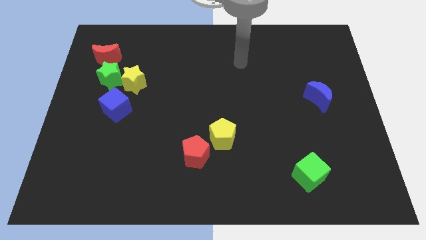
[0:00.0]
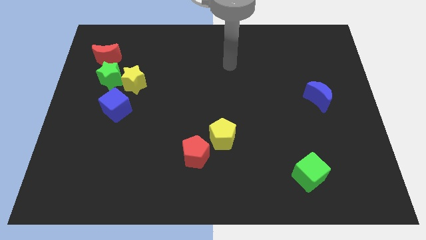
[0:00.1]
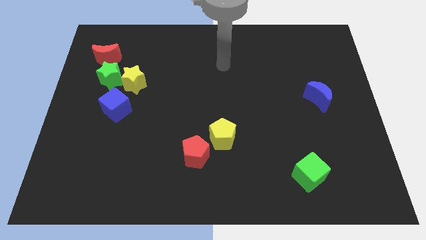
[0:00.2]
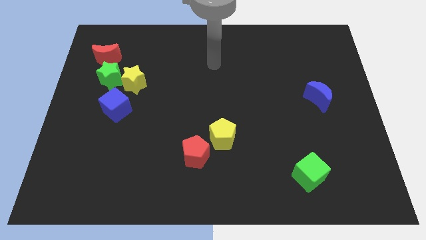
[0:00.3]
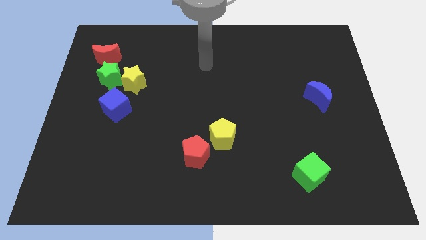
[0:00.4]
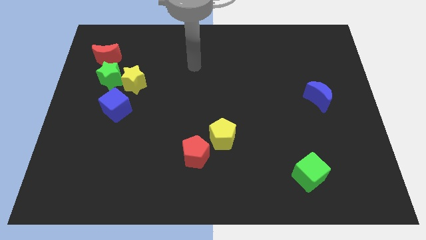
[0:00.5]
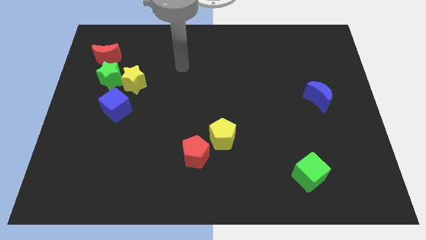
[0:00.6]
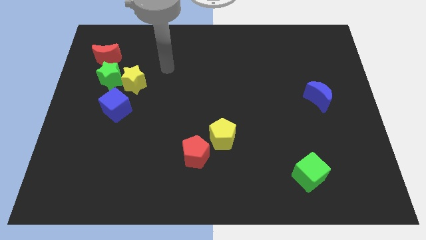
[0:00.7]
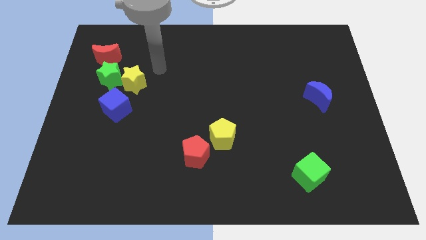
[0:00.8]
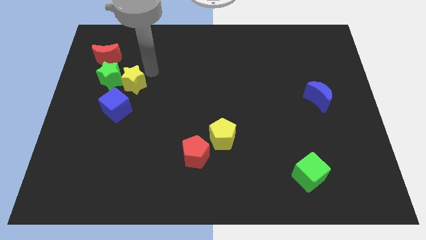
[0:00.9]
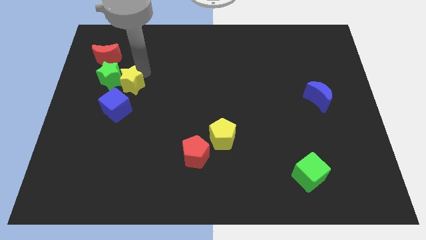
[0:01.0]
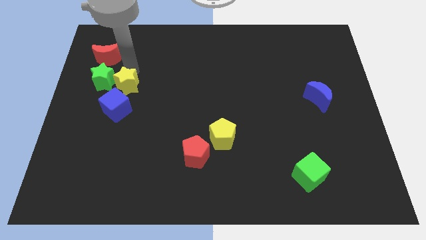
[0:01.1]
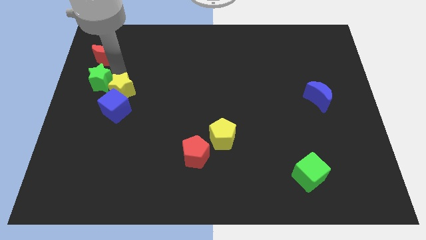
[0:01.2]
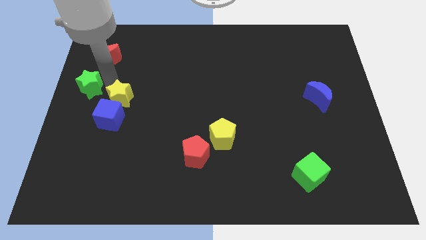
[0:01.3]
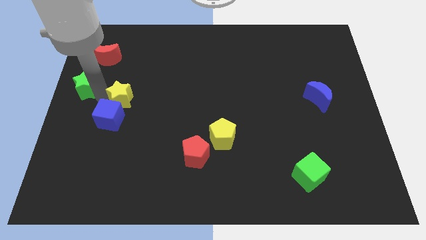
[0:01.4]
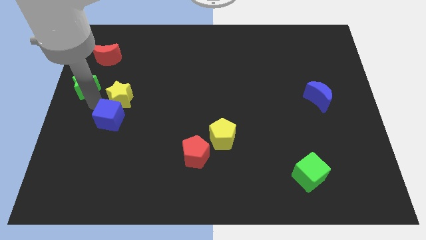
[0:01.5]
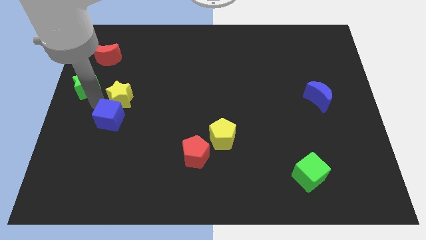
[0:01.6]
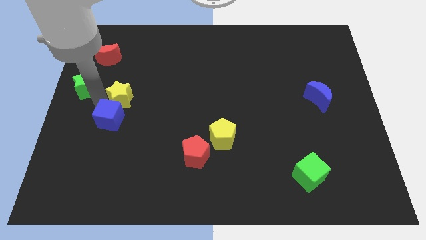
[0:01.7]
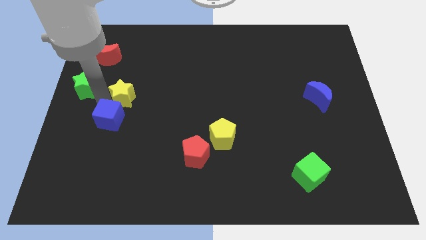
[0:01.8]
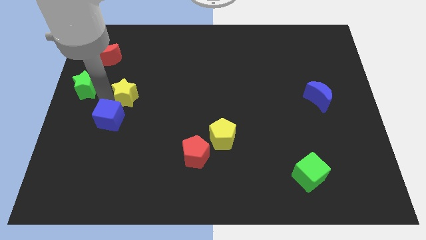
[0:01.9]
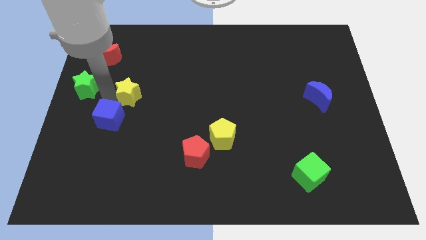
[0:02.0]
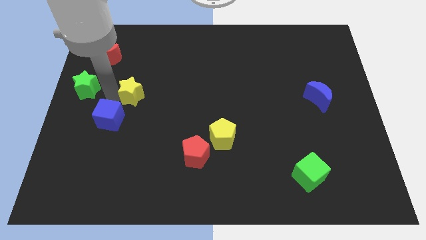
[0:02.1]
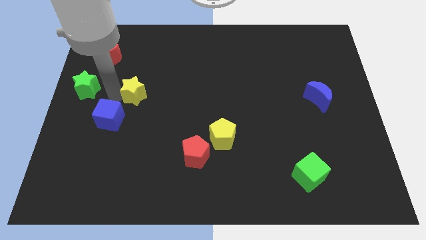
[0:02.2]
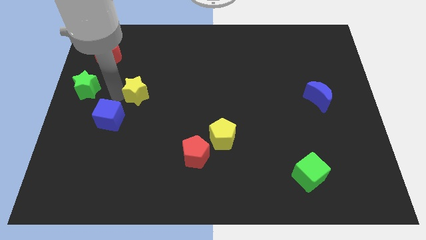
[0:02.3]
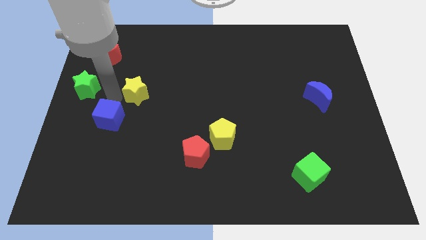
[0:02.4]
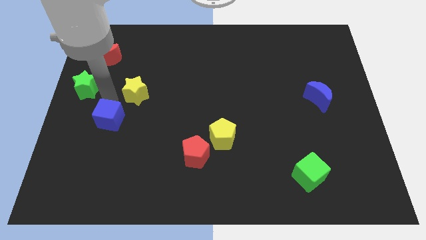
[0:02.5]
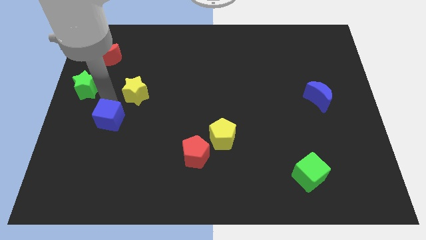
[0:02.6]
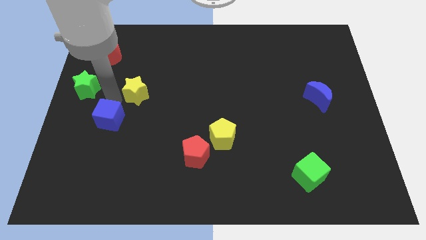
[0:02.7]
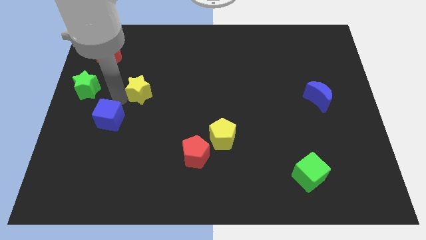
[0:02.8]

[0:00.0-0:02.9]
move the yellow star away from the green star and blue cube

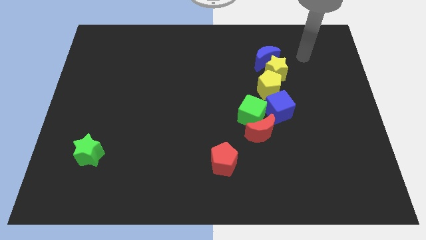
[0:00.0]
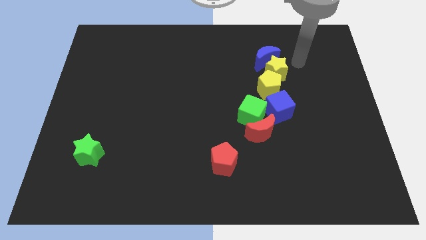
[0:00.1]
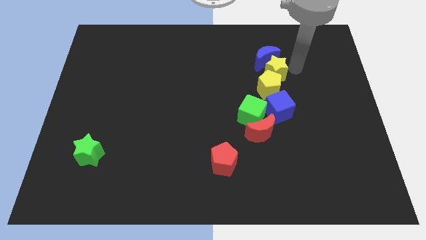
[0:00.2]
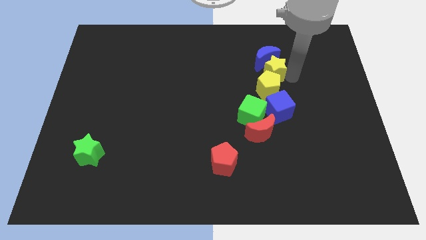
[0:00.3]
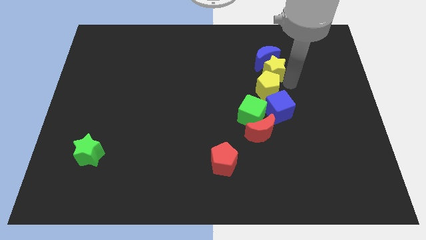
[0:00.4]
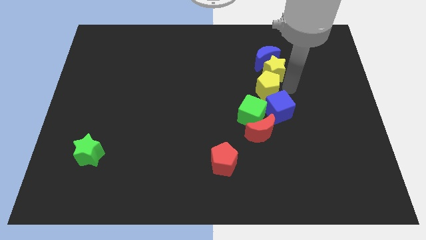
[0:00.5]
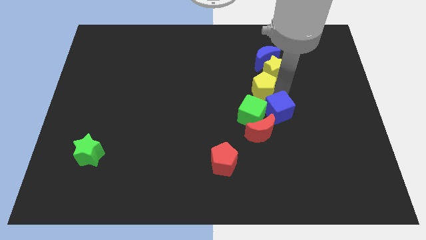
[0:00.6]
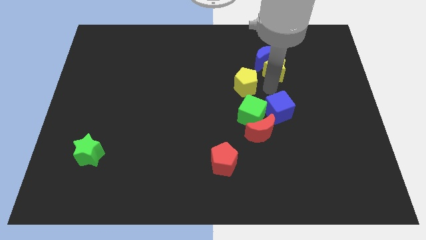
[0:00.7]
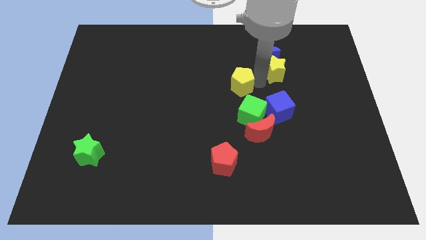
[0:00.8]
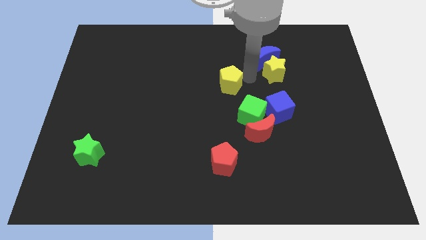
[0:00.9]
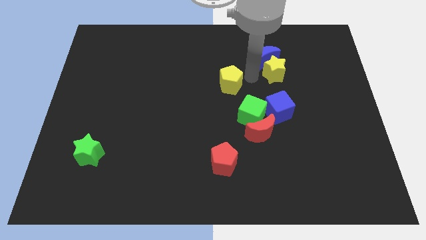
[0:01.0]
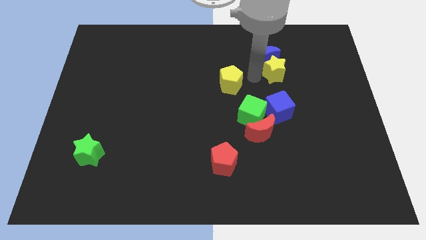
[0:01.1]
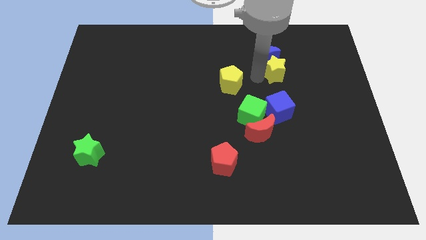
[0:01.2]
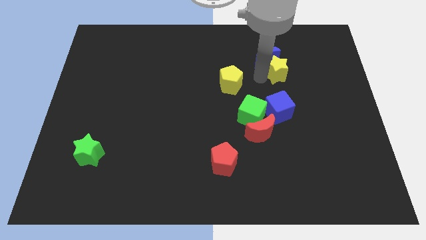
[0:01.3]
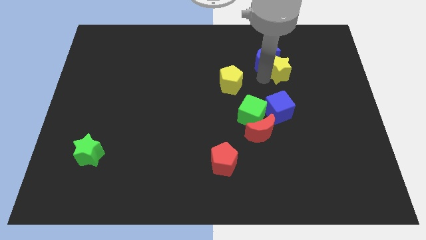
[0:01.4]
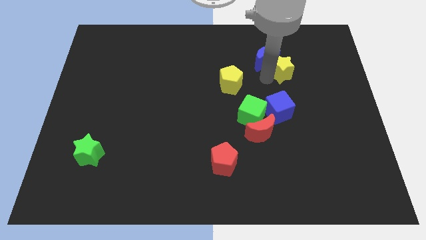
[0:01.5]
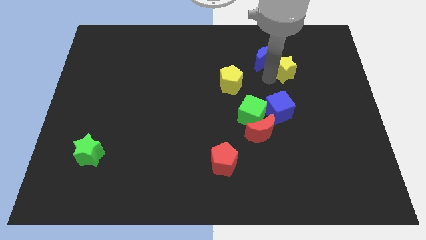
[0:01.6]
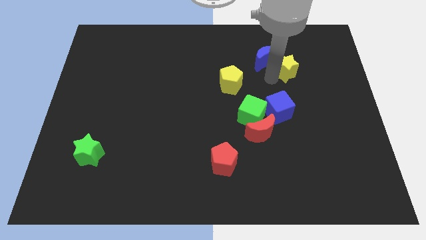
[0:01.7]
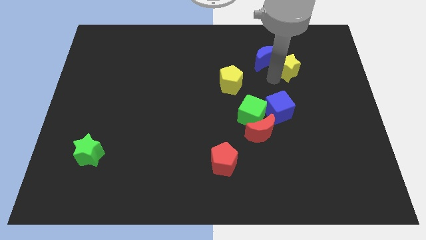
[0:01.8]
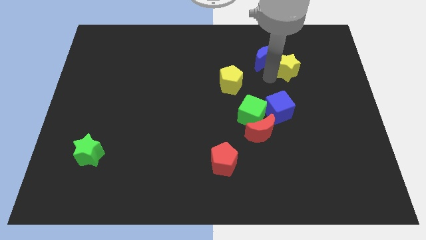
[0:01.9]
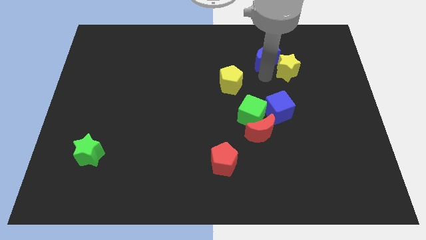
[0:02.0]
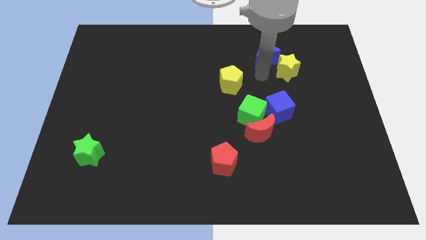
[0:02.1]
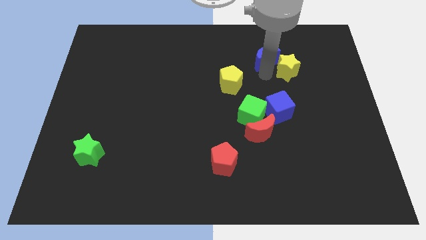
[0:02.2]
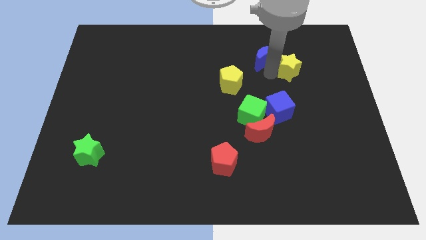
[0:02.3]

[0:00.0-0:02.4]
move the yellow star away from the blue moon and yellow pentagon

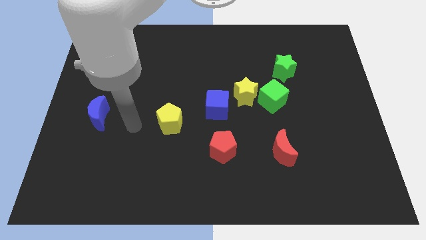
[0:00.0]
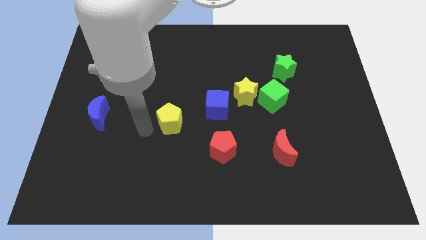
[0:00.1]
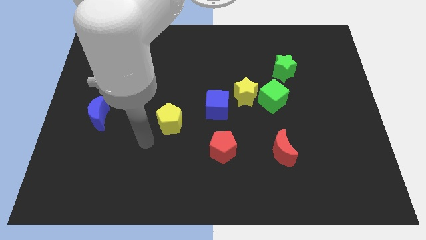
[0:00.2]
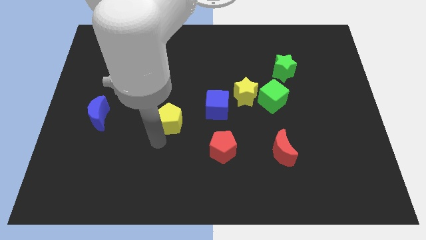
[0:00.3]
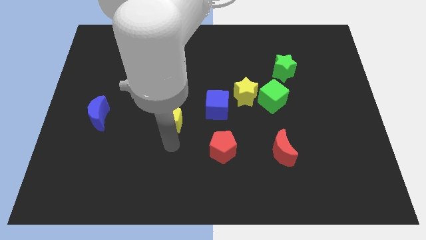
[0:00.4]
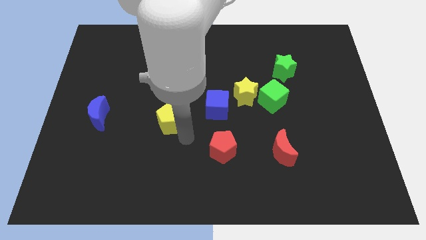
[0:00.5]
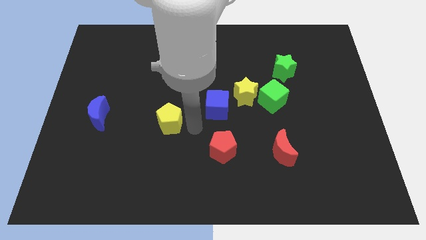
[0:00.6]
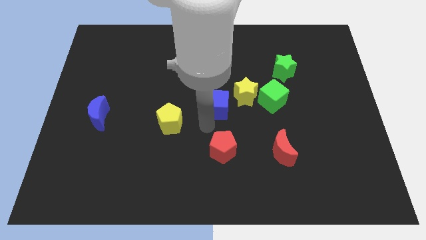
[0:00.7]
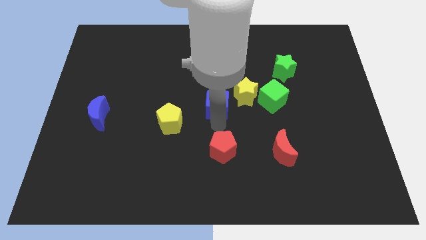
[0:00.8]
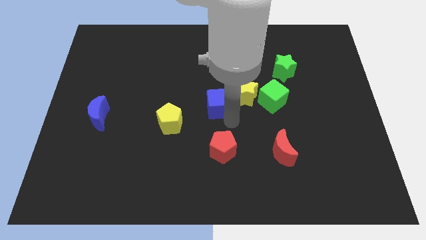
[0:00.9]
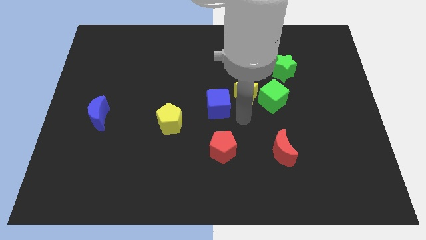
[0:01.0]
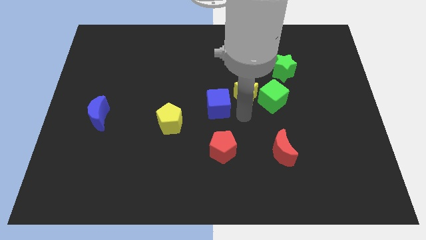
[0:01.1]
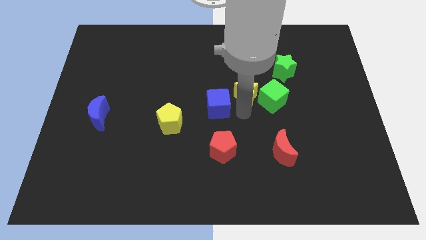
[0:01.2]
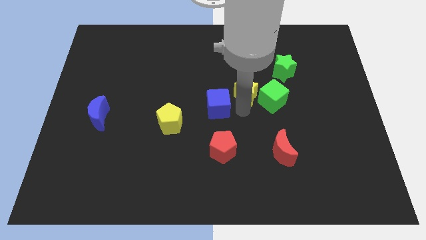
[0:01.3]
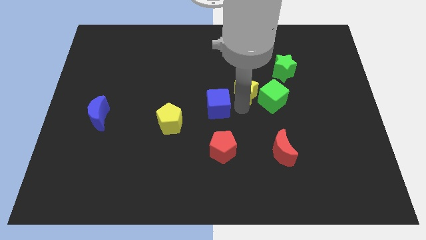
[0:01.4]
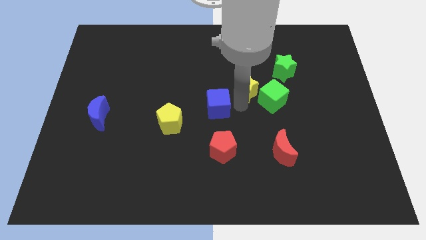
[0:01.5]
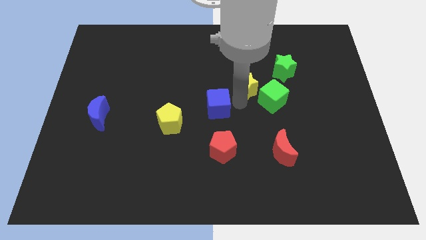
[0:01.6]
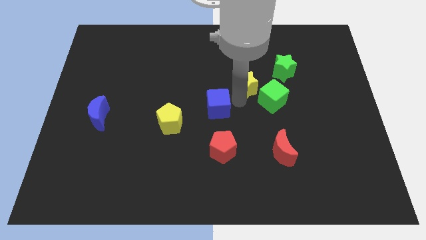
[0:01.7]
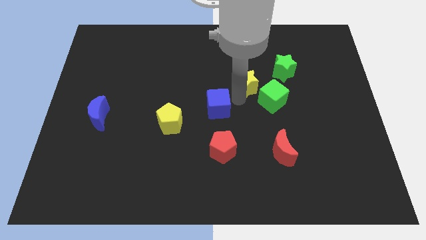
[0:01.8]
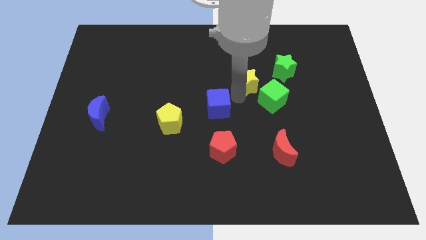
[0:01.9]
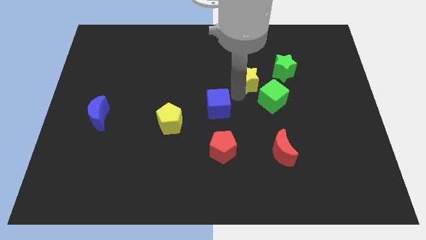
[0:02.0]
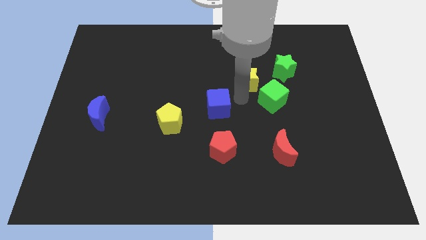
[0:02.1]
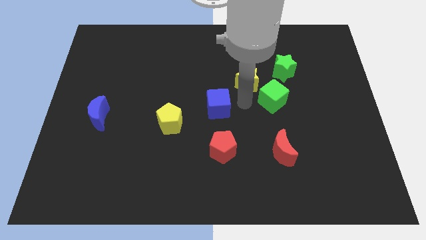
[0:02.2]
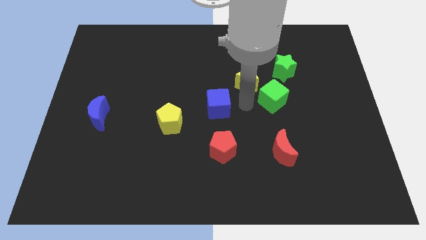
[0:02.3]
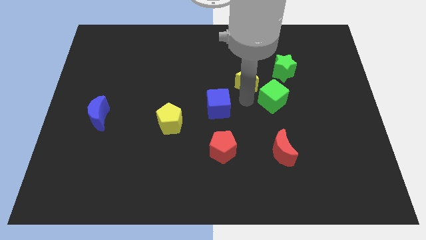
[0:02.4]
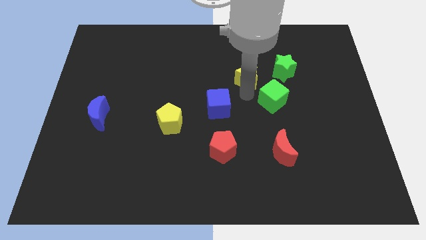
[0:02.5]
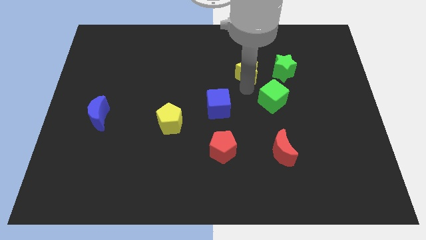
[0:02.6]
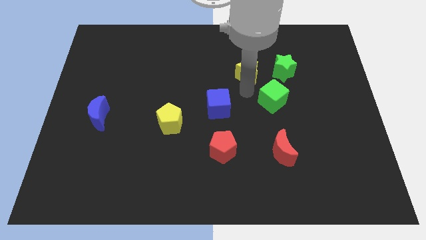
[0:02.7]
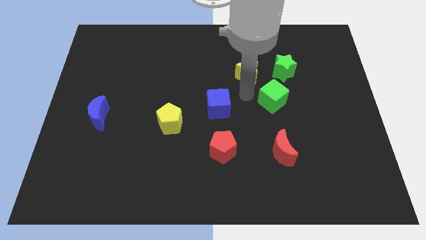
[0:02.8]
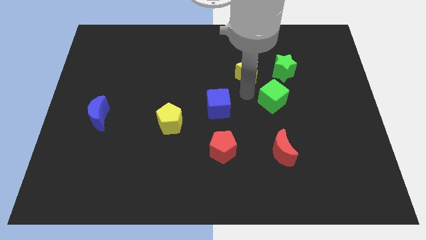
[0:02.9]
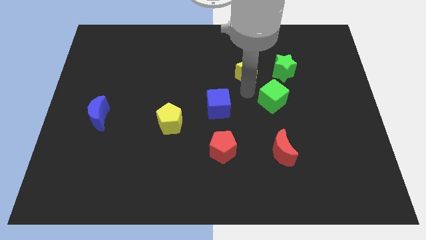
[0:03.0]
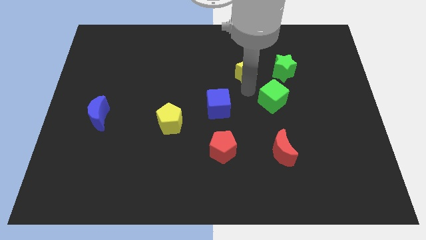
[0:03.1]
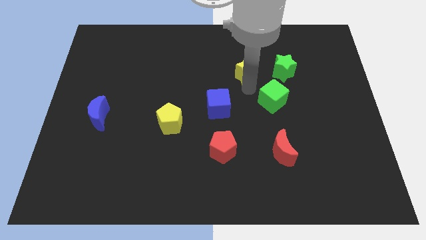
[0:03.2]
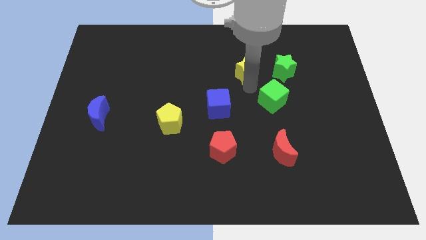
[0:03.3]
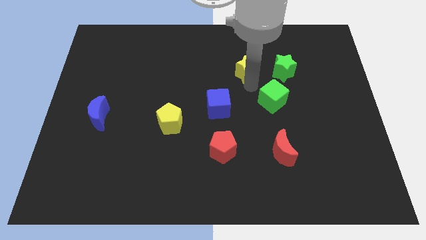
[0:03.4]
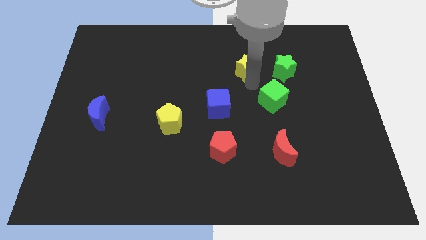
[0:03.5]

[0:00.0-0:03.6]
pull the yellow star apart from the green cube and blue cube

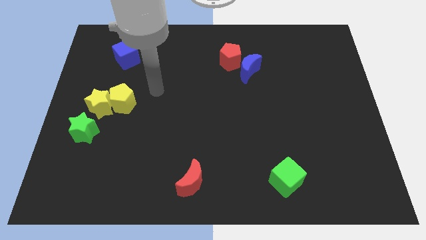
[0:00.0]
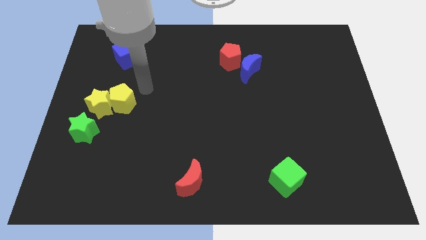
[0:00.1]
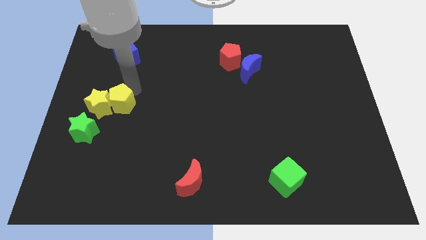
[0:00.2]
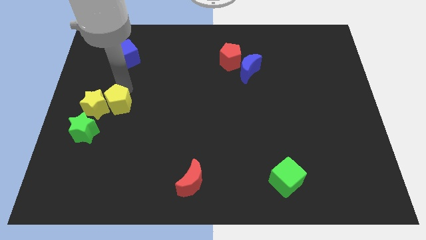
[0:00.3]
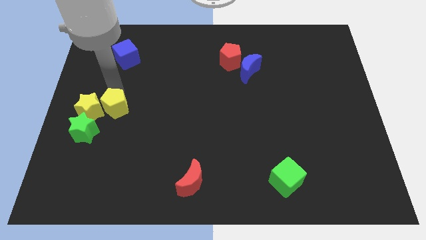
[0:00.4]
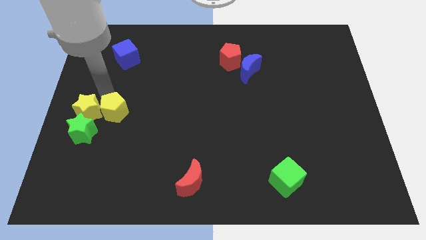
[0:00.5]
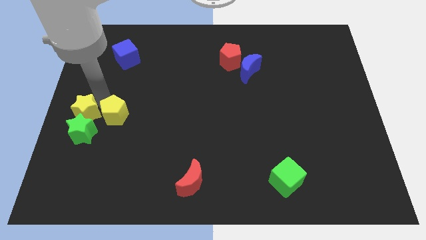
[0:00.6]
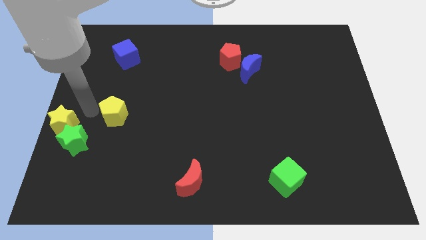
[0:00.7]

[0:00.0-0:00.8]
pull the yellow pentagon apart from the yellow star
